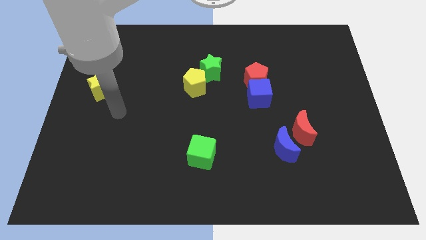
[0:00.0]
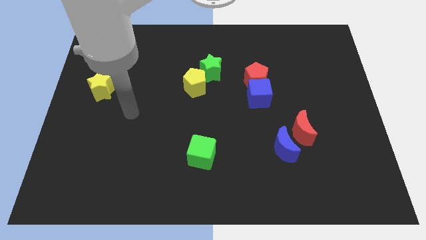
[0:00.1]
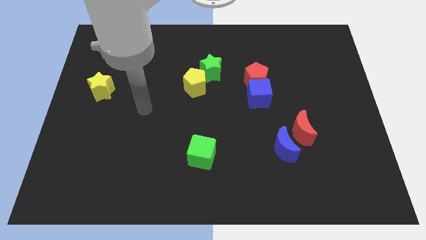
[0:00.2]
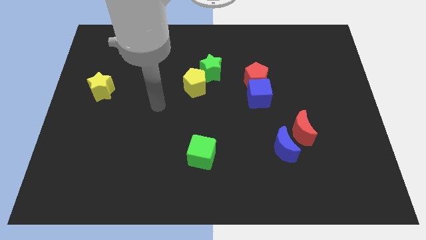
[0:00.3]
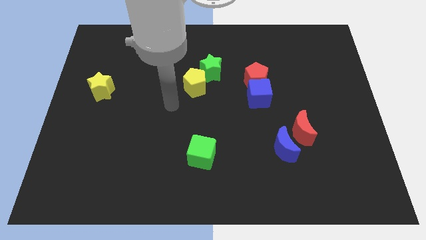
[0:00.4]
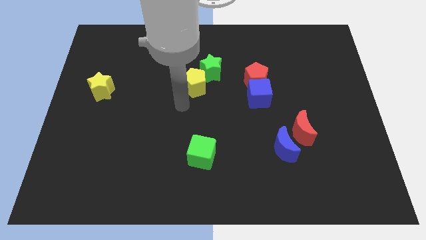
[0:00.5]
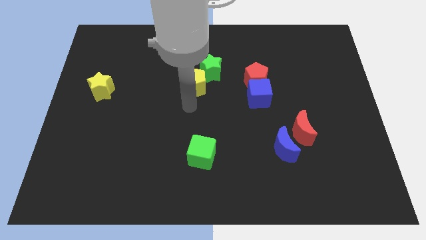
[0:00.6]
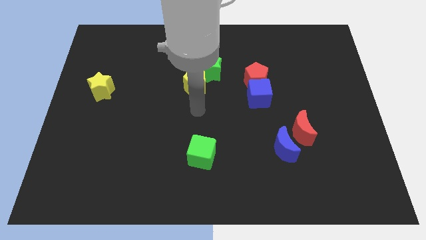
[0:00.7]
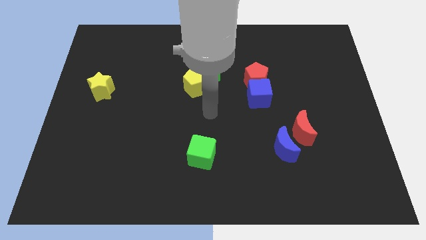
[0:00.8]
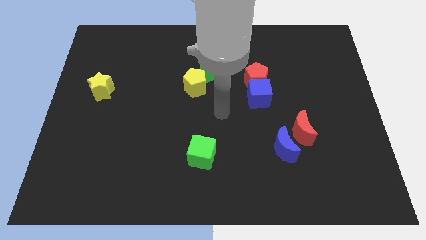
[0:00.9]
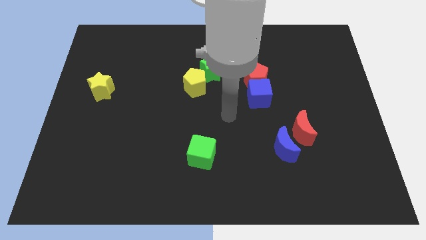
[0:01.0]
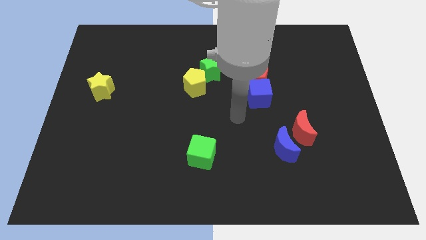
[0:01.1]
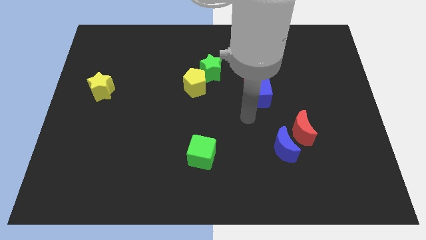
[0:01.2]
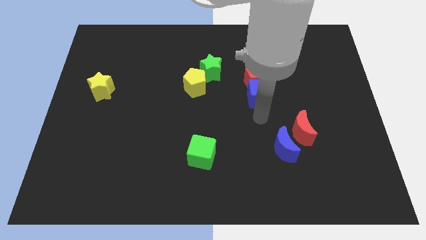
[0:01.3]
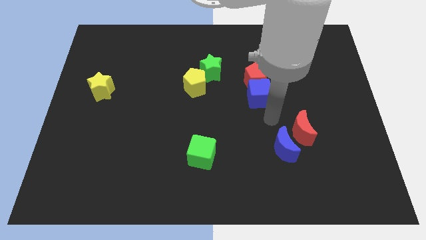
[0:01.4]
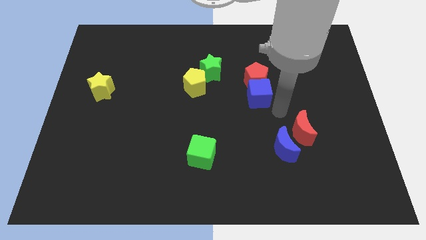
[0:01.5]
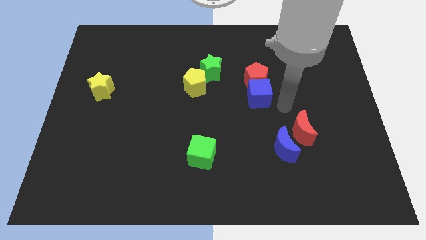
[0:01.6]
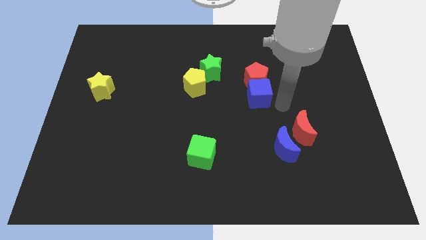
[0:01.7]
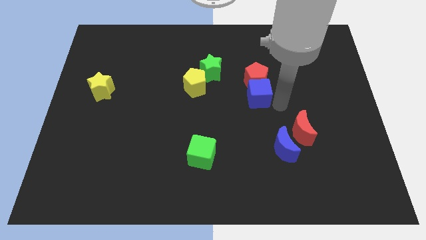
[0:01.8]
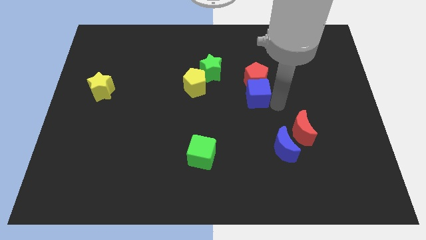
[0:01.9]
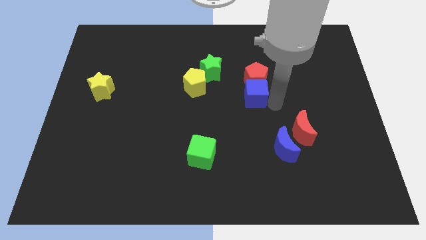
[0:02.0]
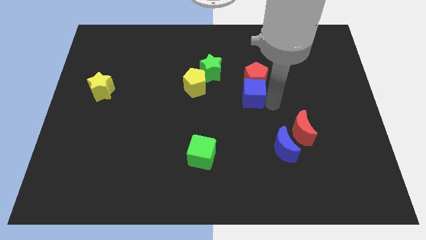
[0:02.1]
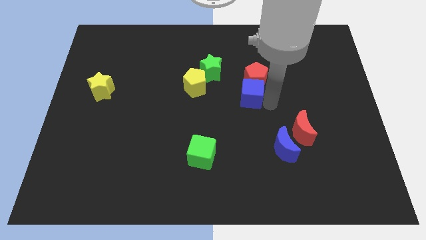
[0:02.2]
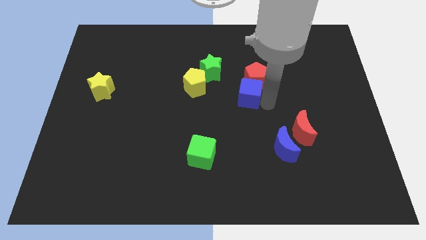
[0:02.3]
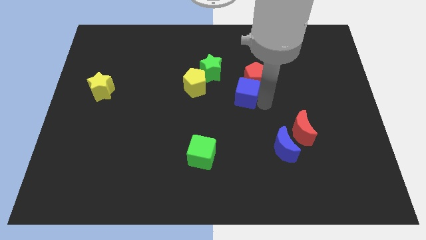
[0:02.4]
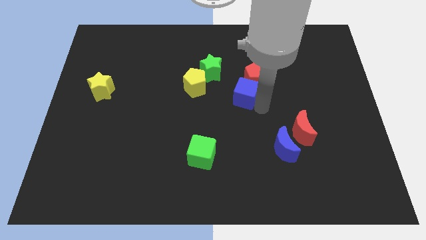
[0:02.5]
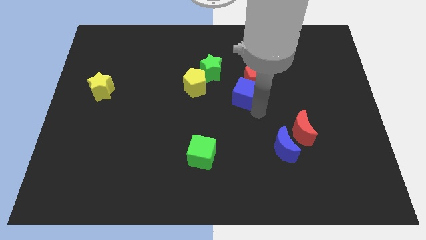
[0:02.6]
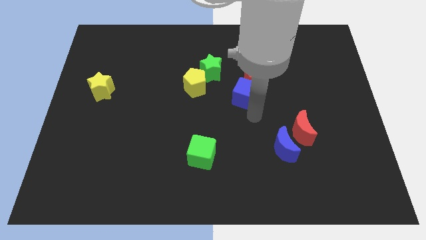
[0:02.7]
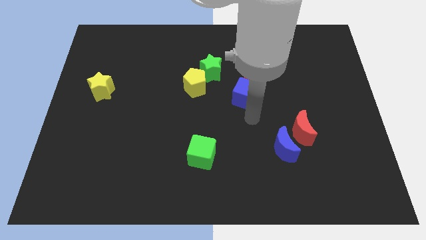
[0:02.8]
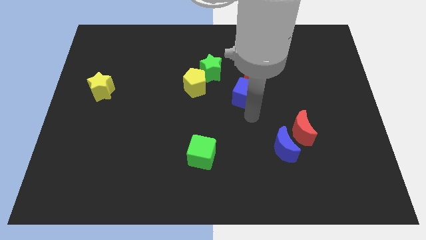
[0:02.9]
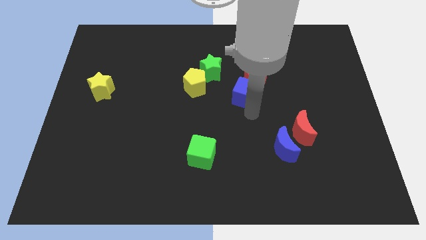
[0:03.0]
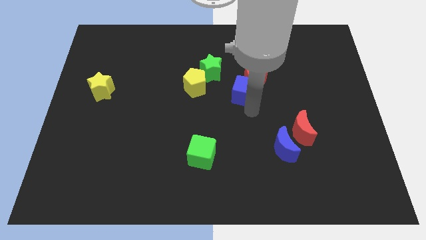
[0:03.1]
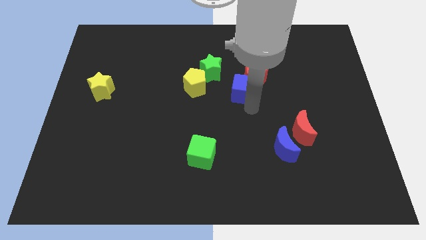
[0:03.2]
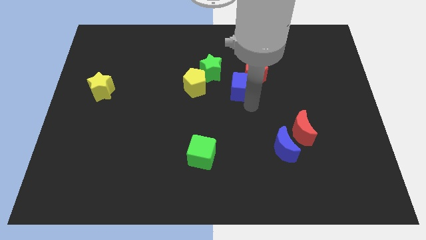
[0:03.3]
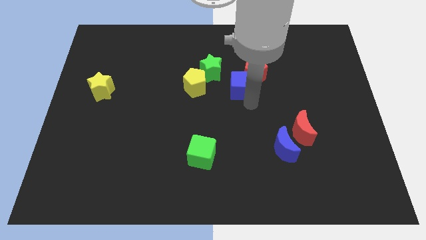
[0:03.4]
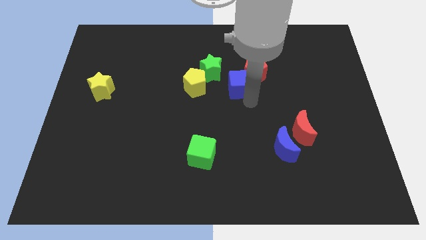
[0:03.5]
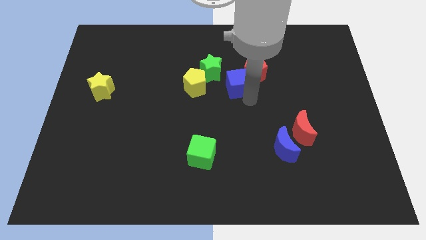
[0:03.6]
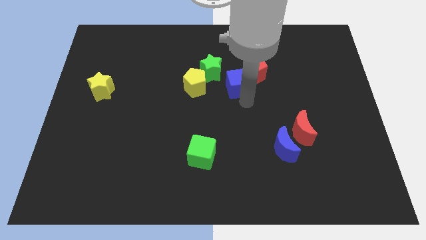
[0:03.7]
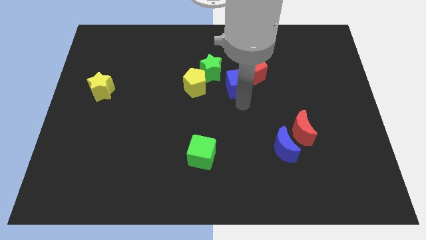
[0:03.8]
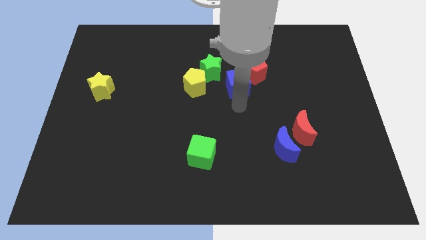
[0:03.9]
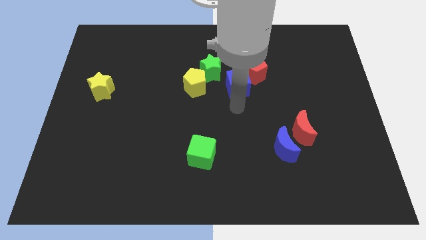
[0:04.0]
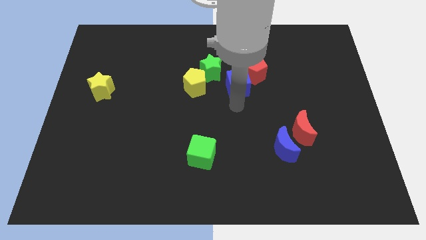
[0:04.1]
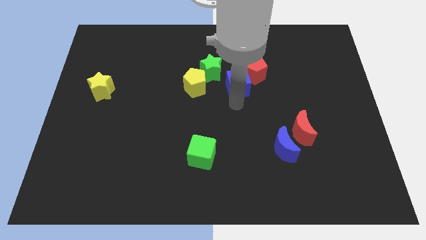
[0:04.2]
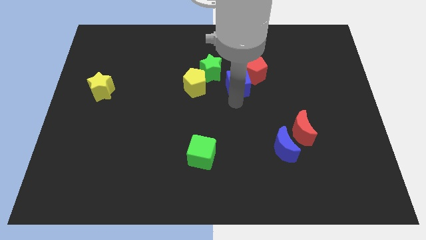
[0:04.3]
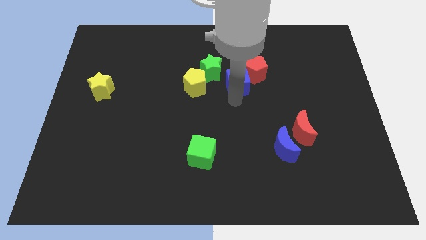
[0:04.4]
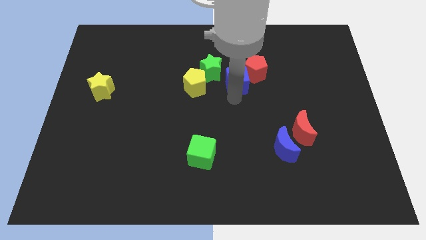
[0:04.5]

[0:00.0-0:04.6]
move the blue cube up and then left a little

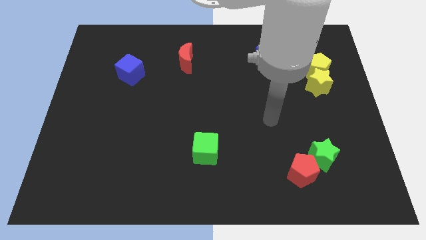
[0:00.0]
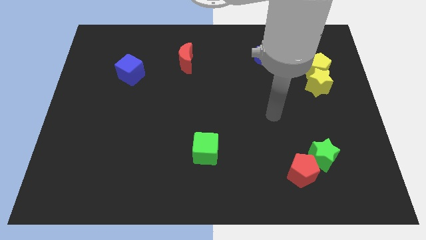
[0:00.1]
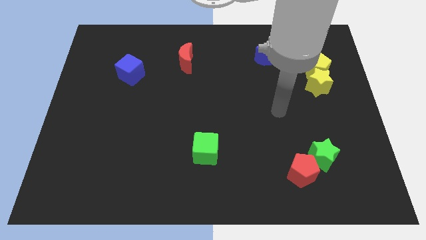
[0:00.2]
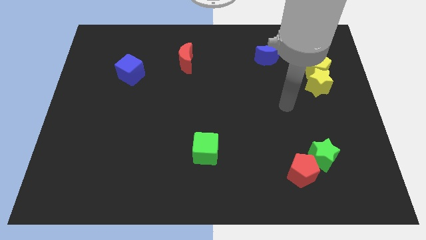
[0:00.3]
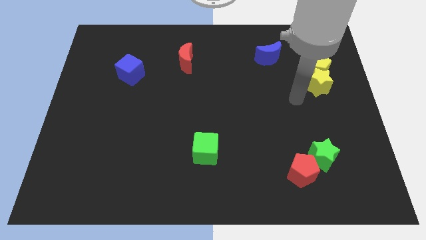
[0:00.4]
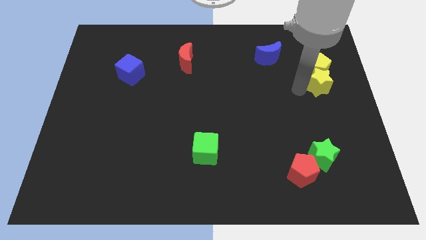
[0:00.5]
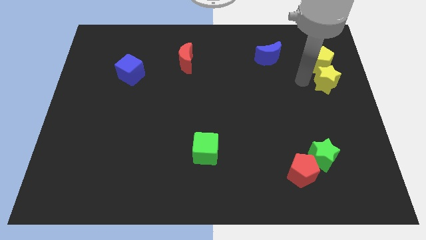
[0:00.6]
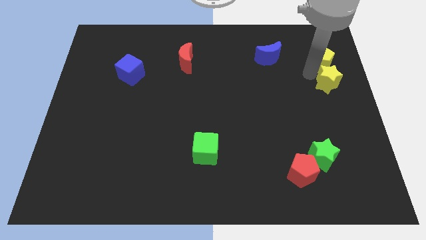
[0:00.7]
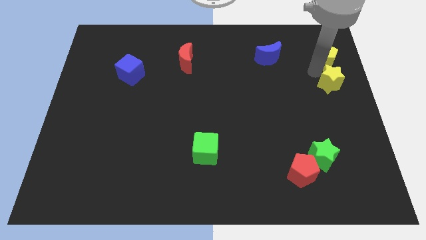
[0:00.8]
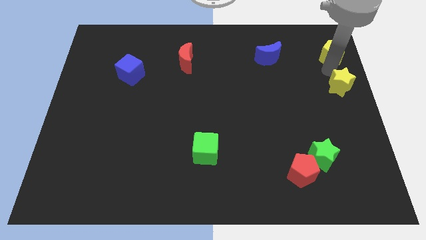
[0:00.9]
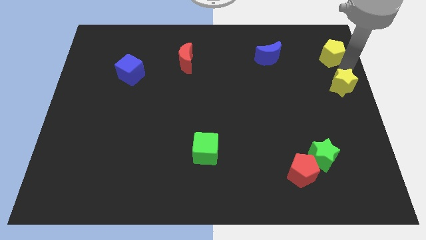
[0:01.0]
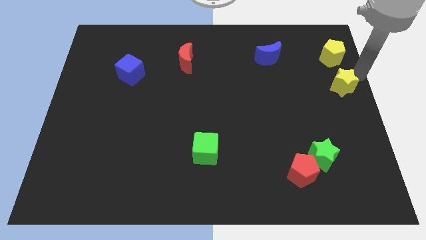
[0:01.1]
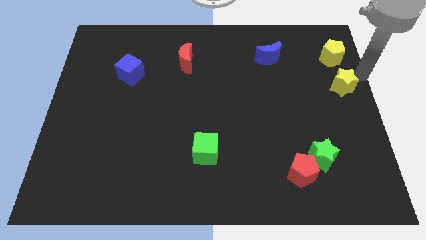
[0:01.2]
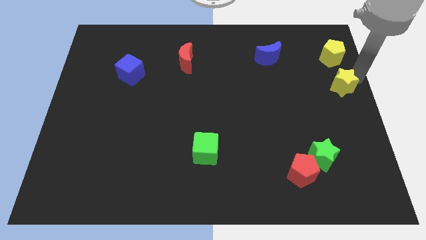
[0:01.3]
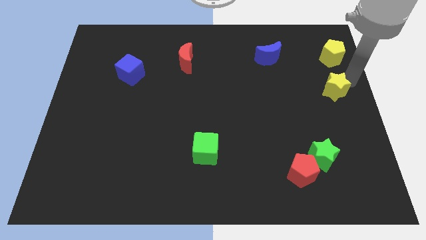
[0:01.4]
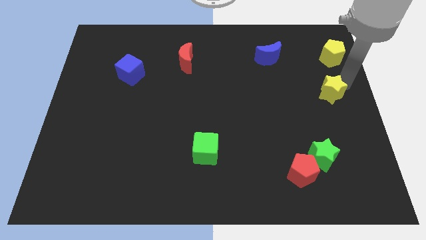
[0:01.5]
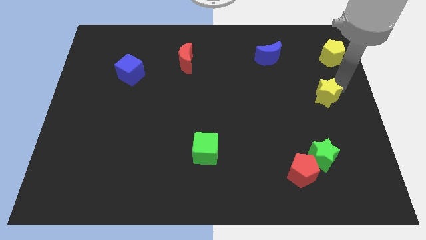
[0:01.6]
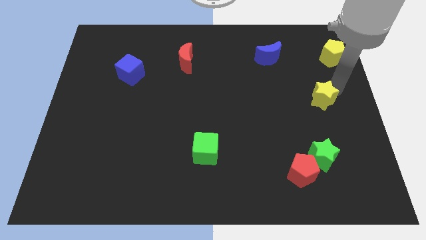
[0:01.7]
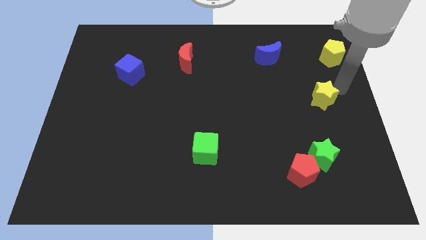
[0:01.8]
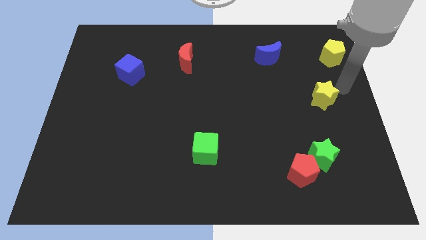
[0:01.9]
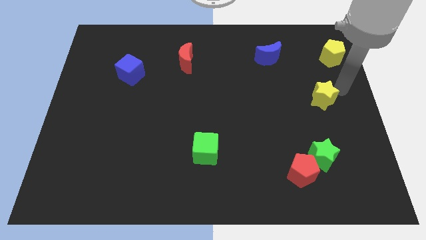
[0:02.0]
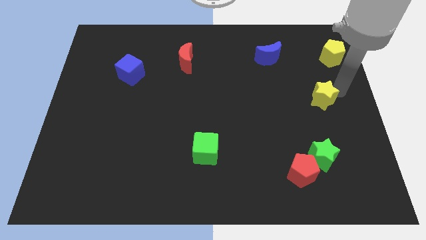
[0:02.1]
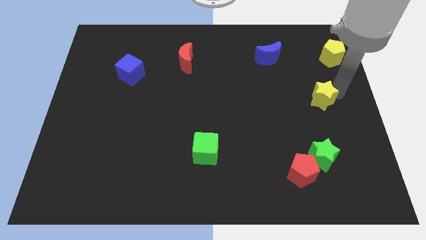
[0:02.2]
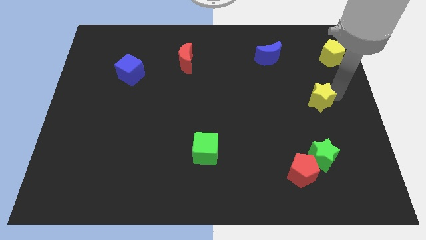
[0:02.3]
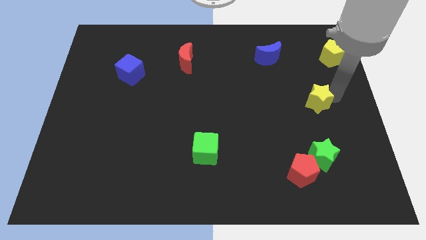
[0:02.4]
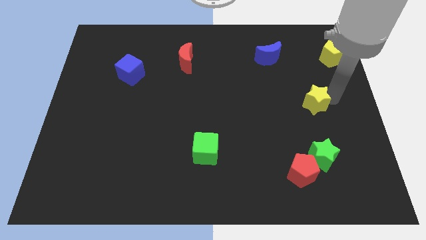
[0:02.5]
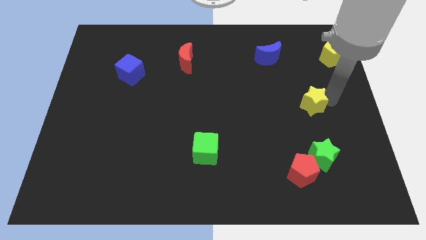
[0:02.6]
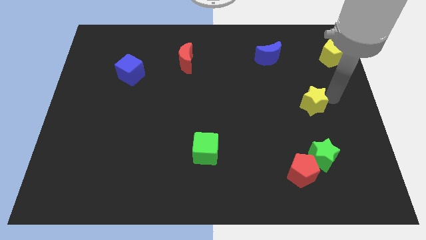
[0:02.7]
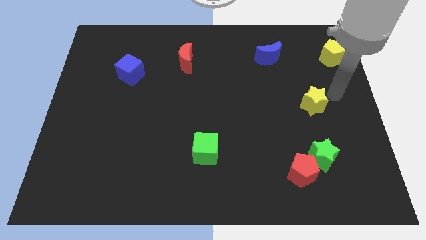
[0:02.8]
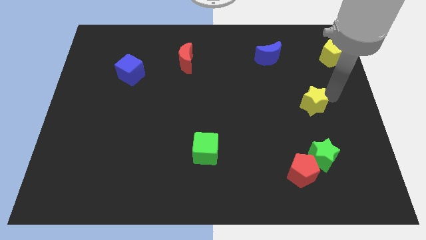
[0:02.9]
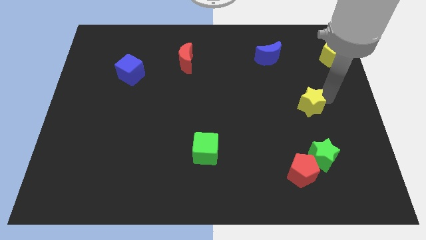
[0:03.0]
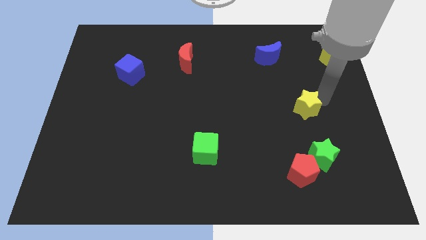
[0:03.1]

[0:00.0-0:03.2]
push the yellow star down and then left somewhat
